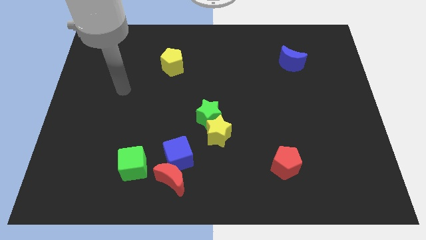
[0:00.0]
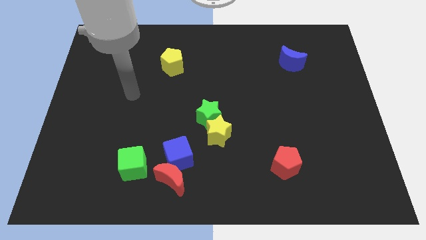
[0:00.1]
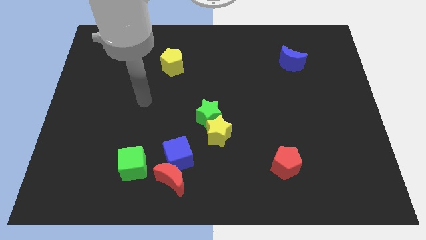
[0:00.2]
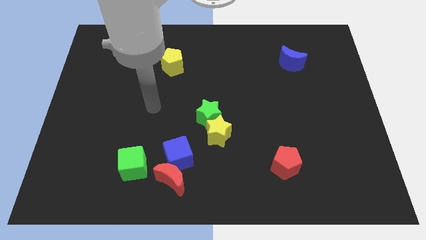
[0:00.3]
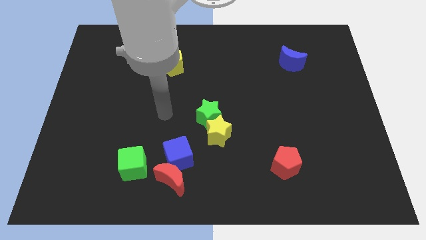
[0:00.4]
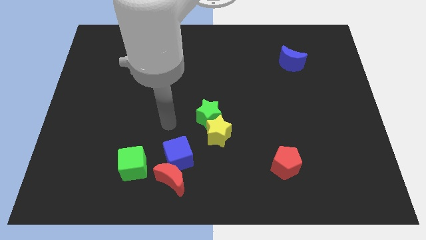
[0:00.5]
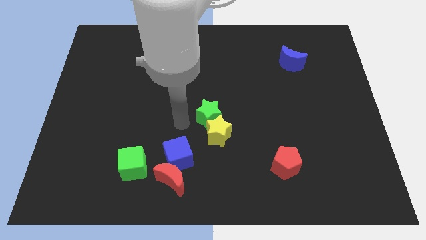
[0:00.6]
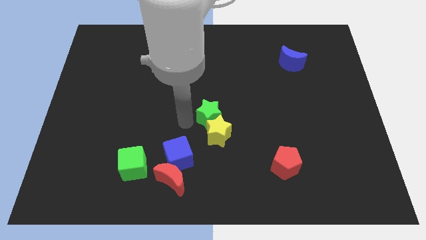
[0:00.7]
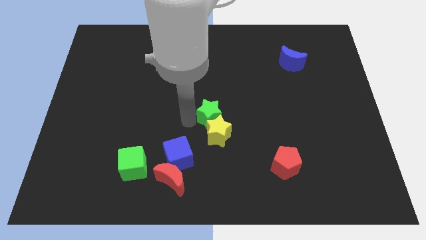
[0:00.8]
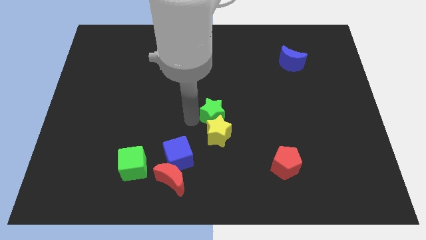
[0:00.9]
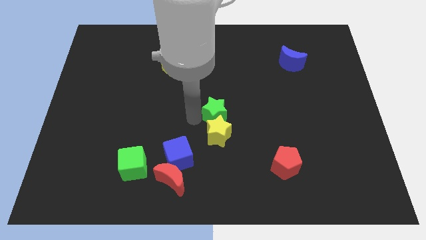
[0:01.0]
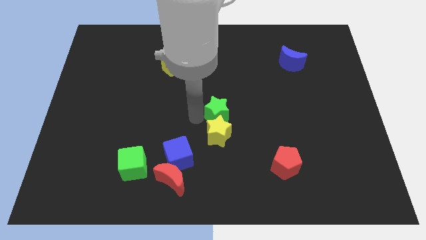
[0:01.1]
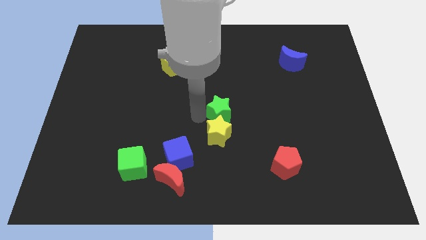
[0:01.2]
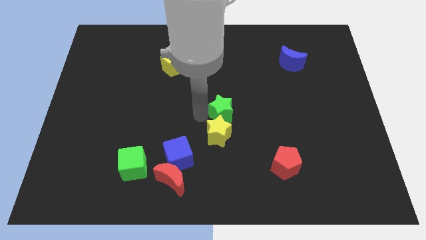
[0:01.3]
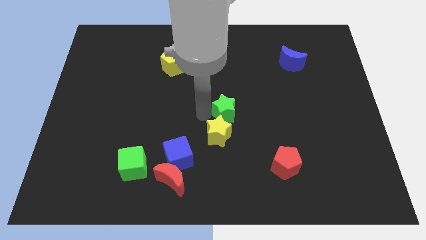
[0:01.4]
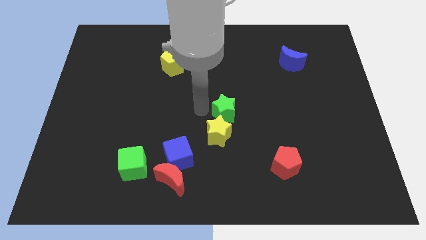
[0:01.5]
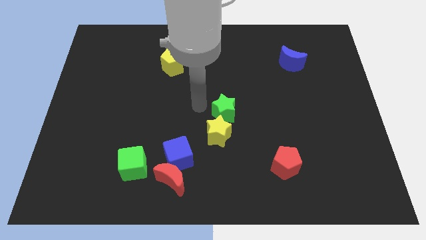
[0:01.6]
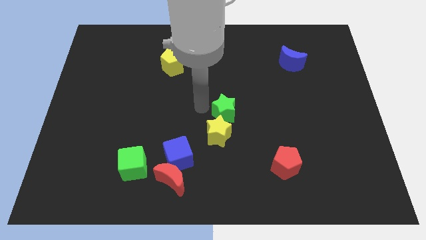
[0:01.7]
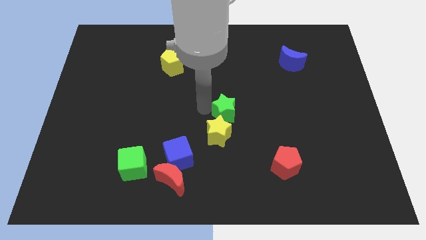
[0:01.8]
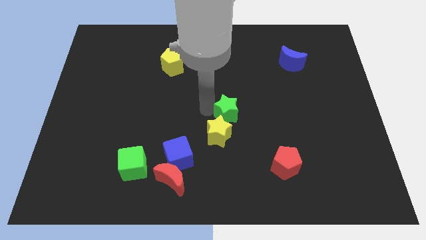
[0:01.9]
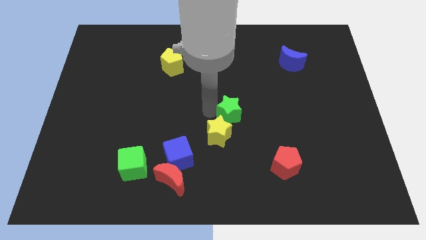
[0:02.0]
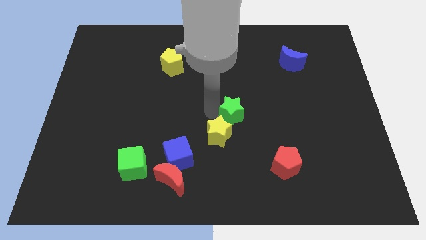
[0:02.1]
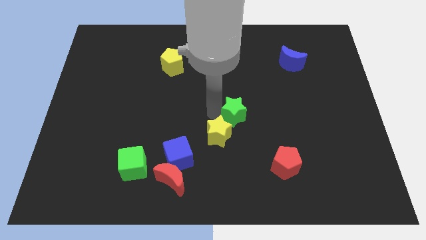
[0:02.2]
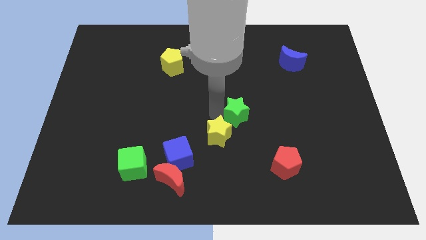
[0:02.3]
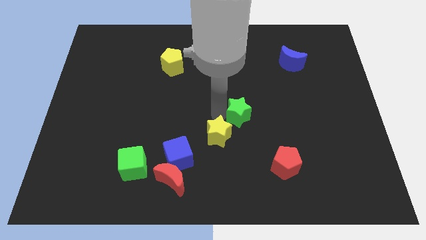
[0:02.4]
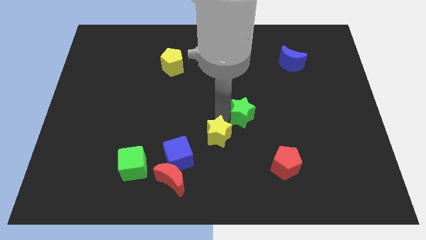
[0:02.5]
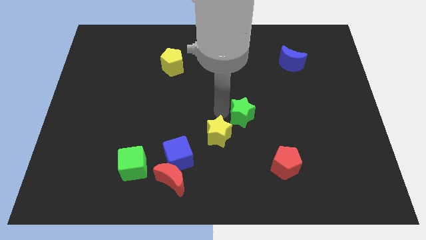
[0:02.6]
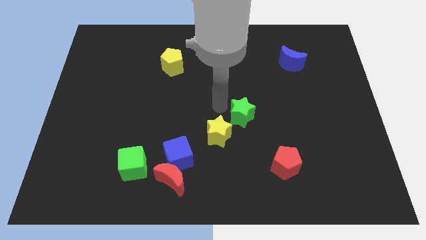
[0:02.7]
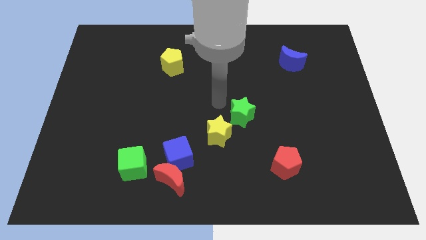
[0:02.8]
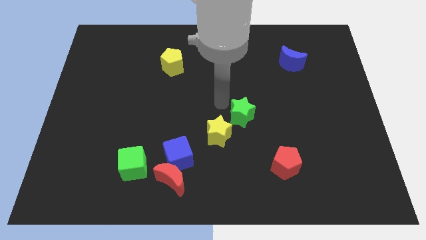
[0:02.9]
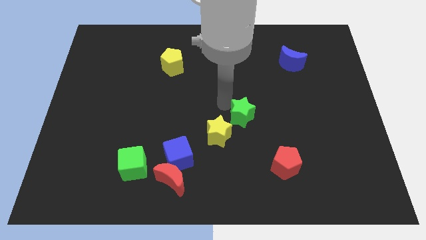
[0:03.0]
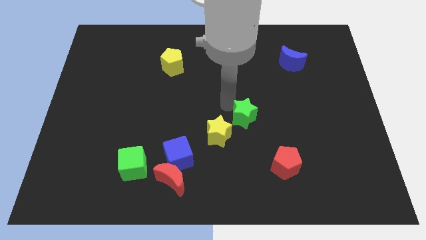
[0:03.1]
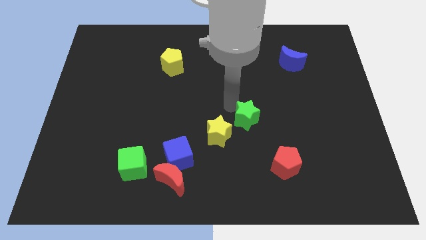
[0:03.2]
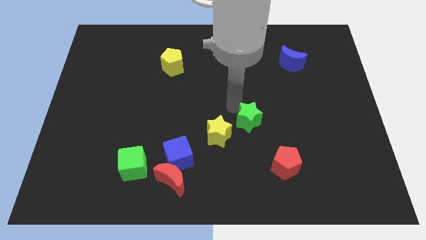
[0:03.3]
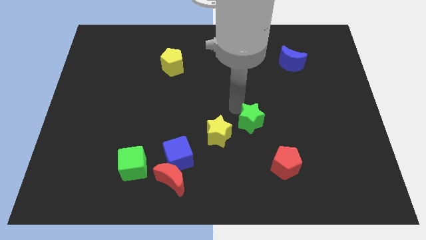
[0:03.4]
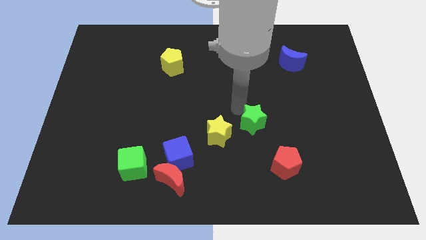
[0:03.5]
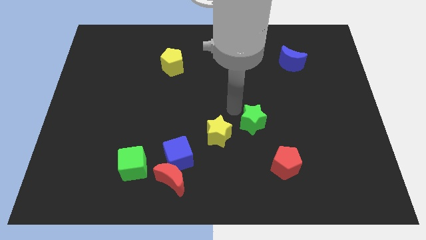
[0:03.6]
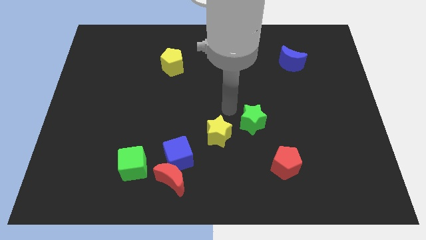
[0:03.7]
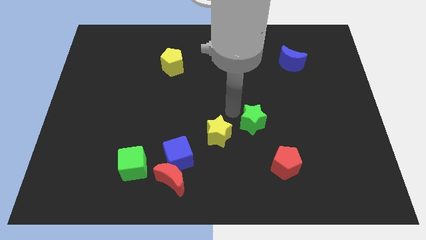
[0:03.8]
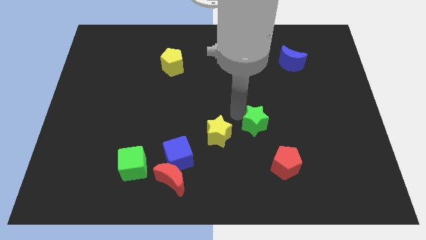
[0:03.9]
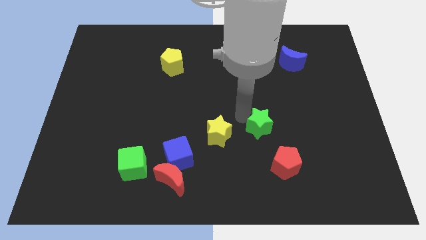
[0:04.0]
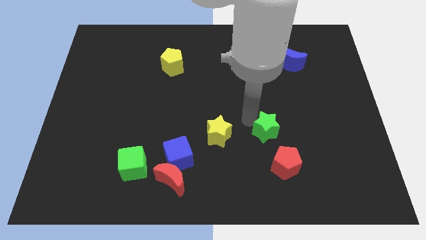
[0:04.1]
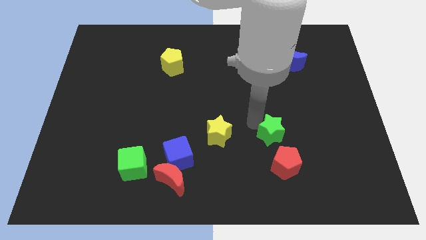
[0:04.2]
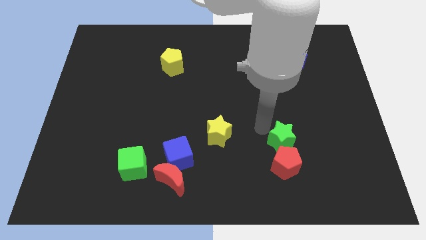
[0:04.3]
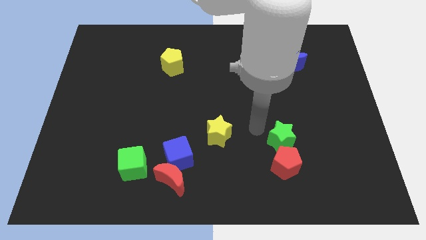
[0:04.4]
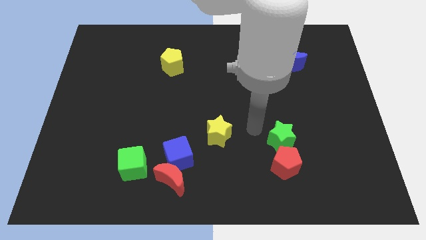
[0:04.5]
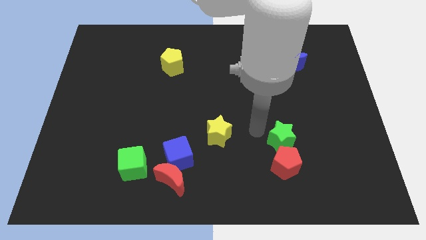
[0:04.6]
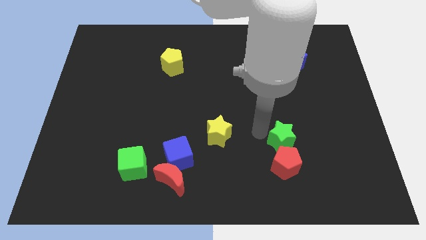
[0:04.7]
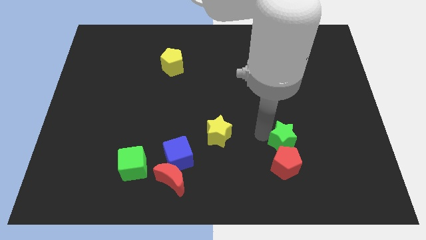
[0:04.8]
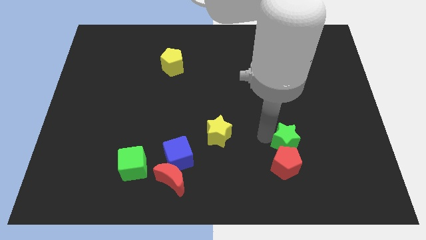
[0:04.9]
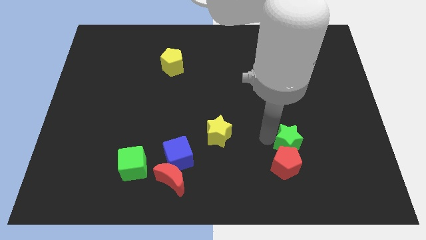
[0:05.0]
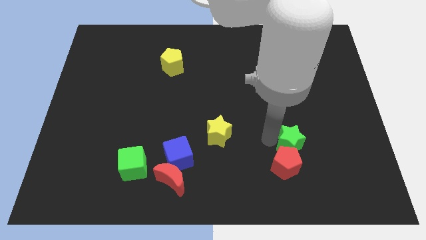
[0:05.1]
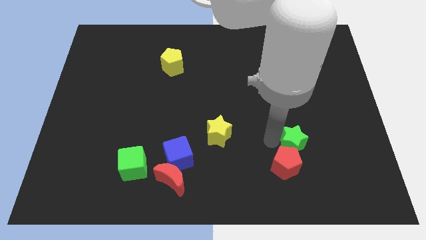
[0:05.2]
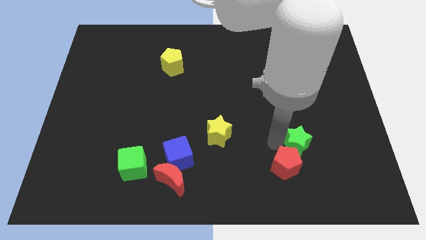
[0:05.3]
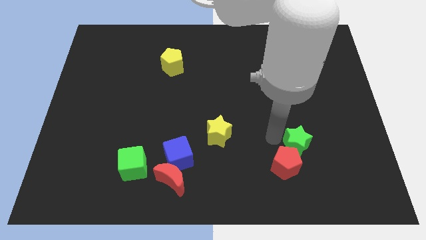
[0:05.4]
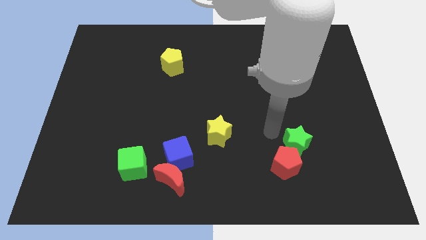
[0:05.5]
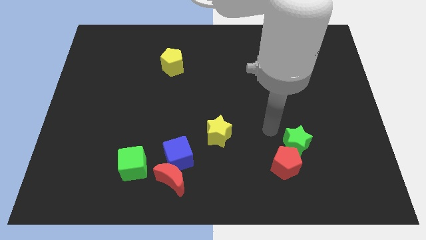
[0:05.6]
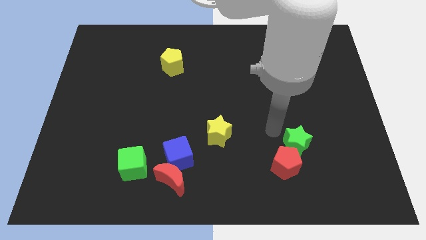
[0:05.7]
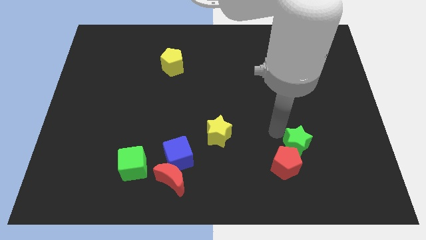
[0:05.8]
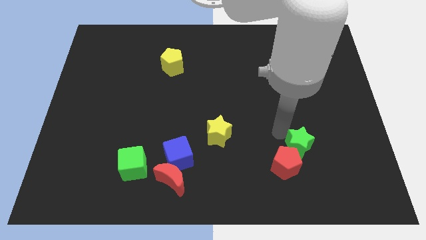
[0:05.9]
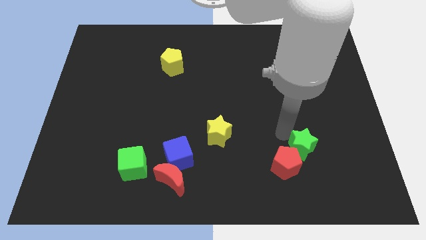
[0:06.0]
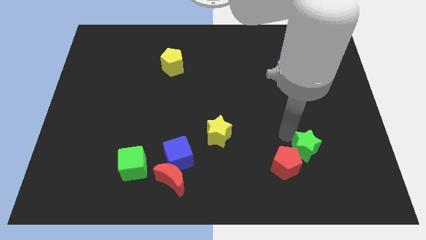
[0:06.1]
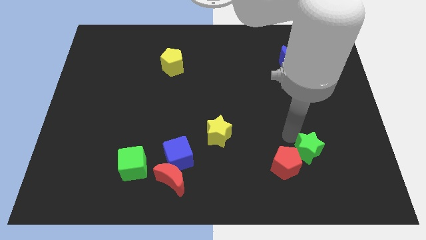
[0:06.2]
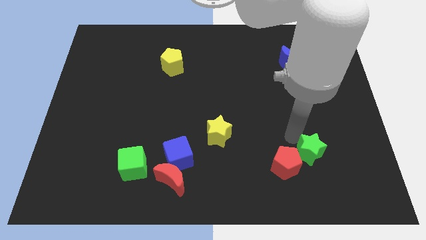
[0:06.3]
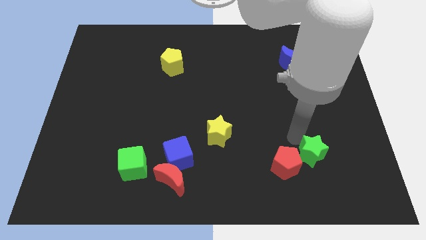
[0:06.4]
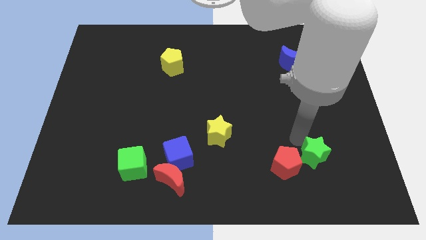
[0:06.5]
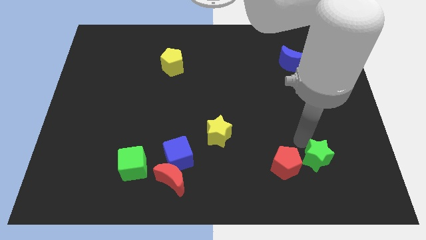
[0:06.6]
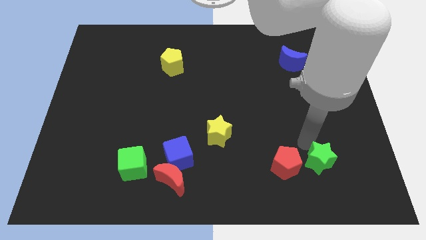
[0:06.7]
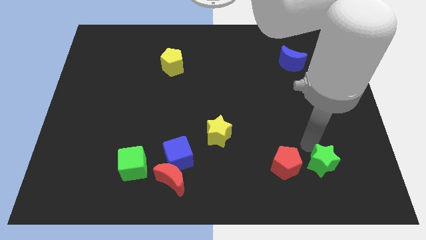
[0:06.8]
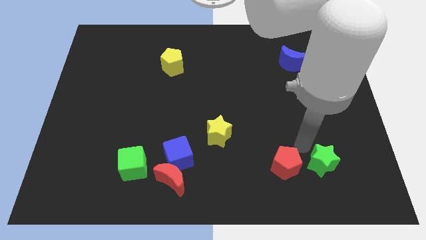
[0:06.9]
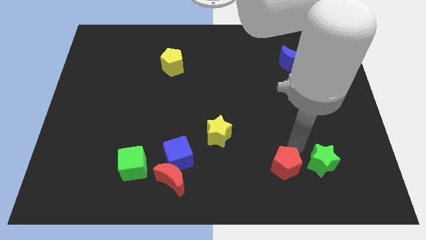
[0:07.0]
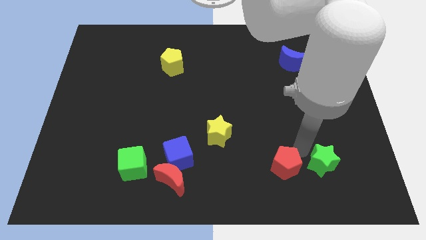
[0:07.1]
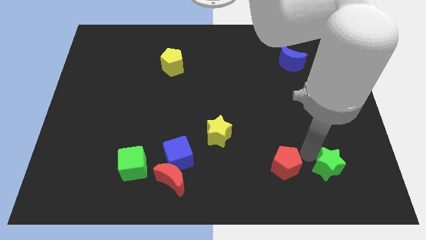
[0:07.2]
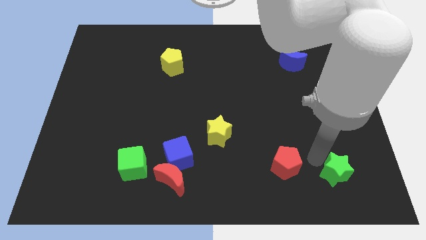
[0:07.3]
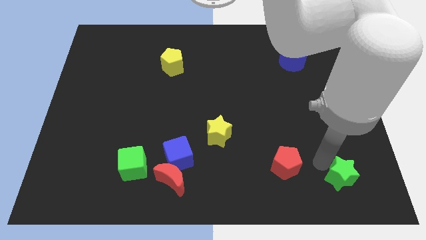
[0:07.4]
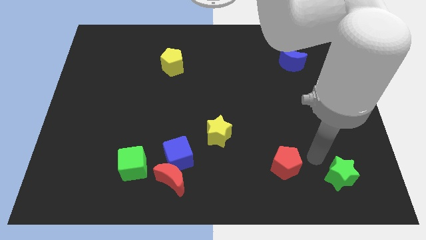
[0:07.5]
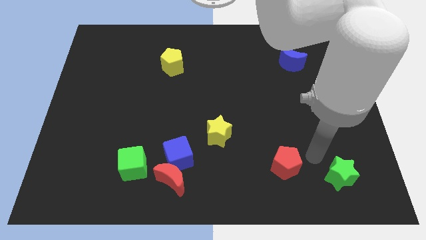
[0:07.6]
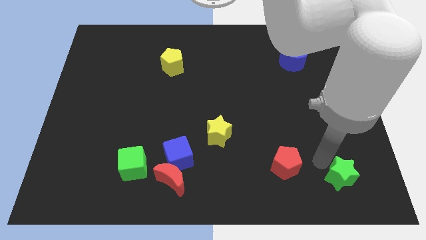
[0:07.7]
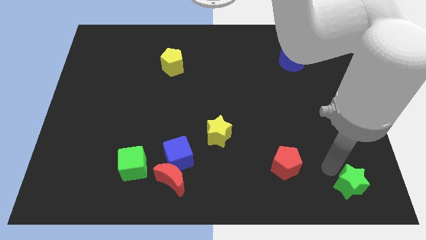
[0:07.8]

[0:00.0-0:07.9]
put the green star to the bottom right
